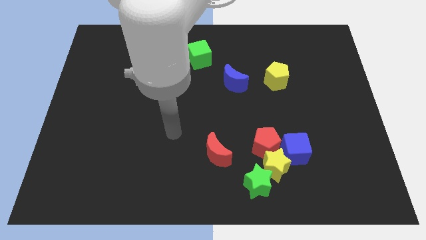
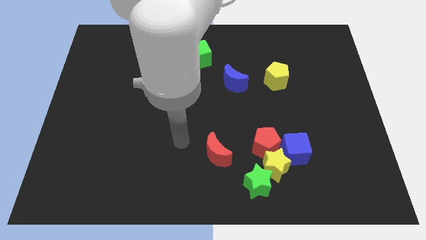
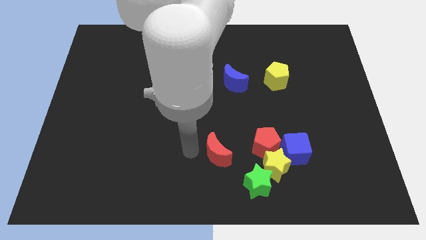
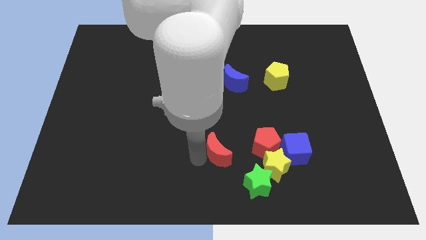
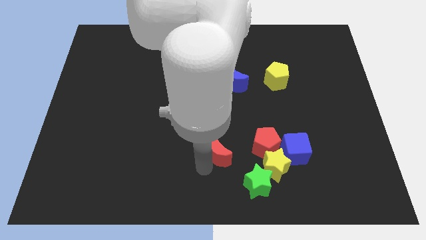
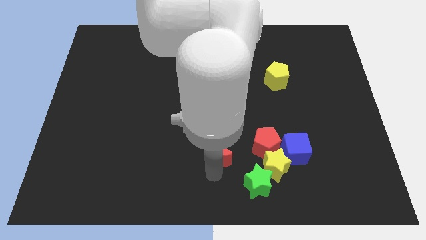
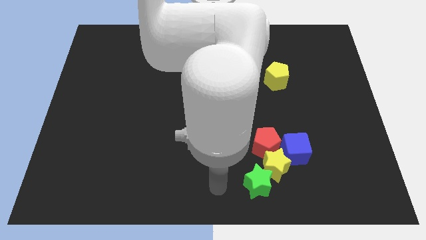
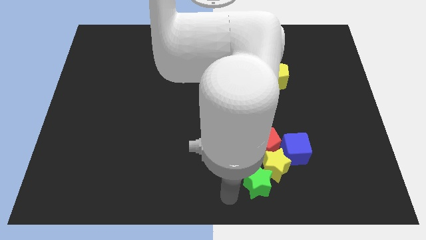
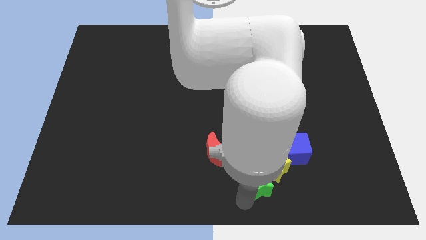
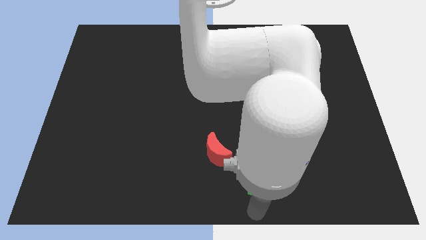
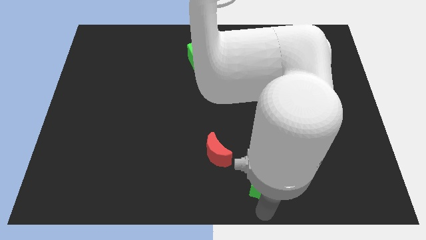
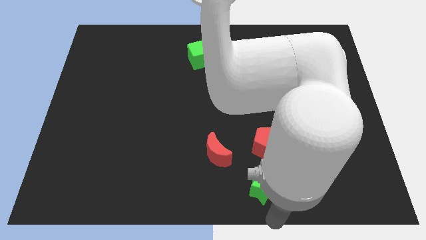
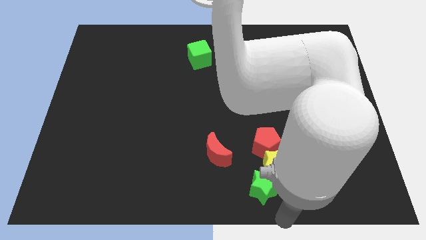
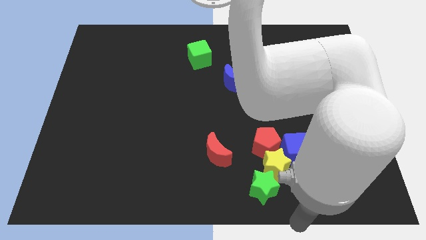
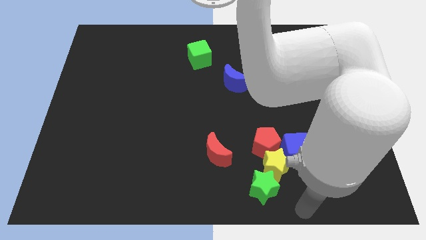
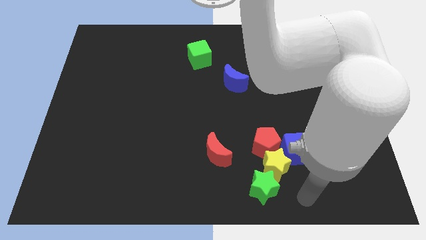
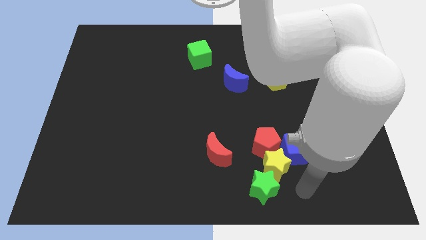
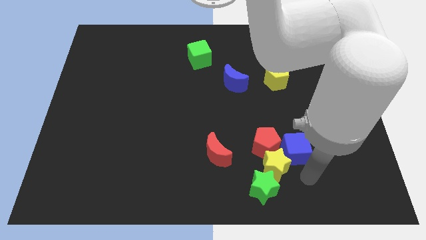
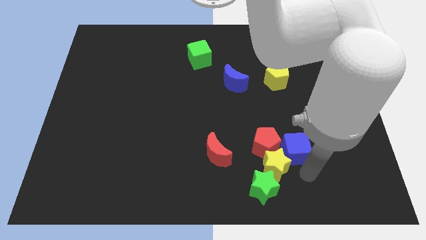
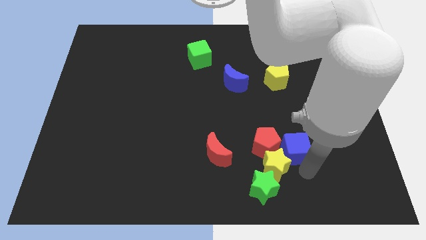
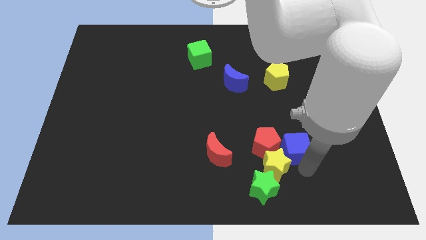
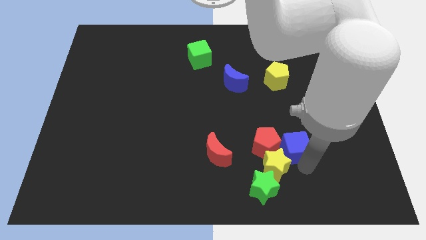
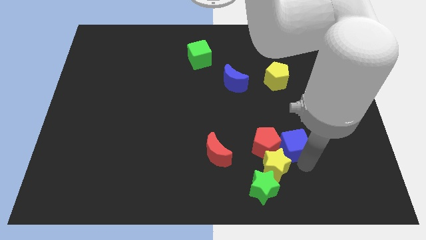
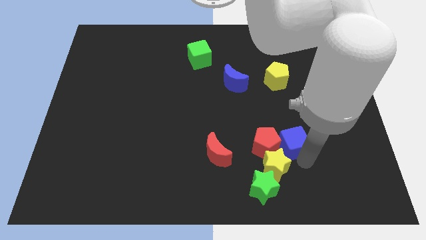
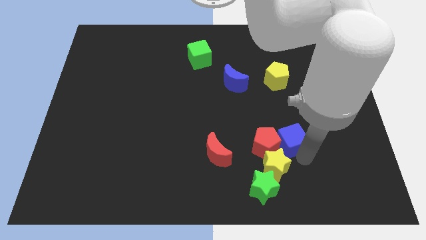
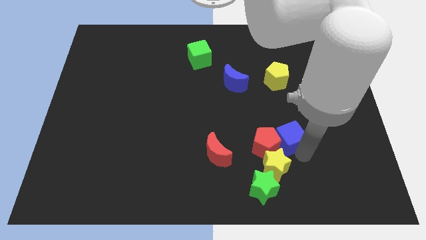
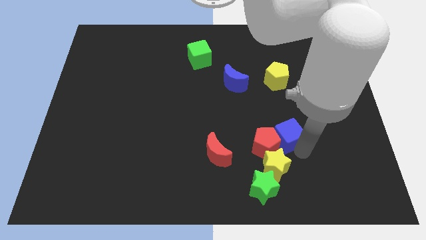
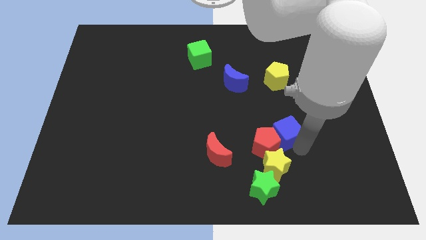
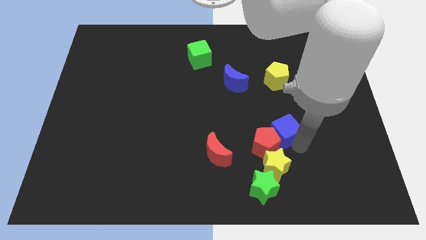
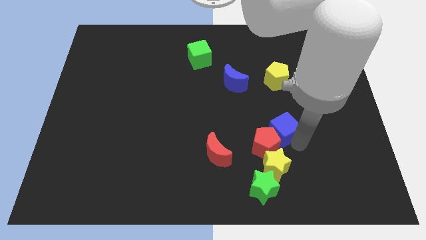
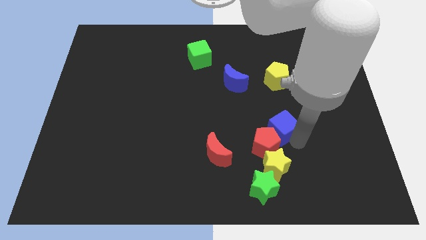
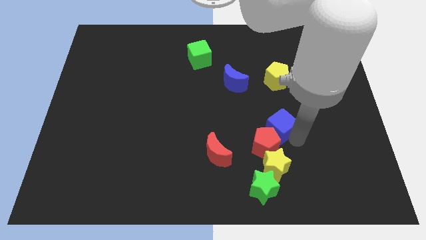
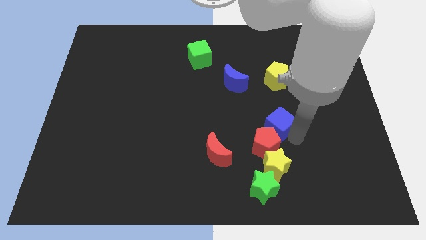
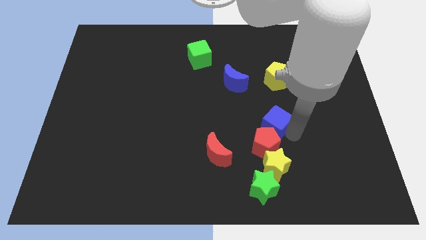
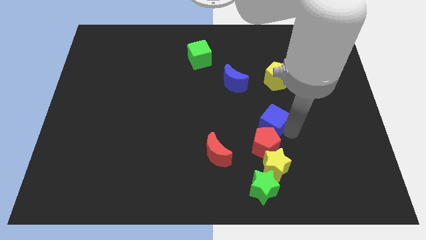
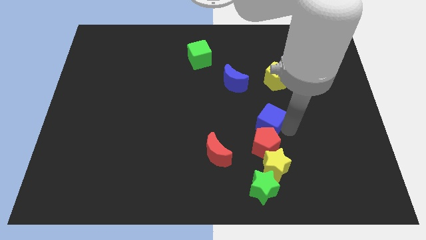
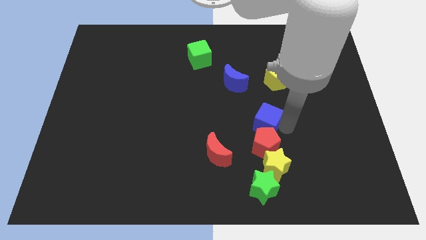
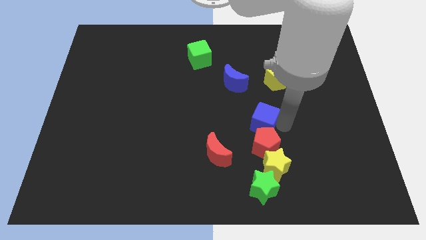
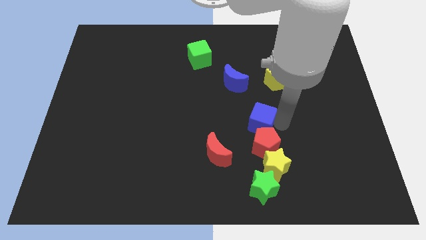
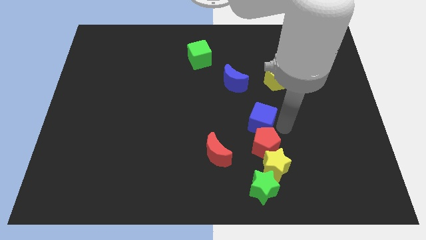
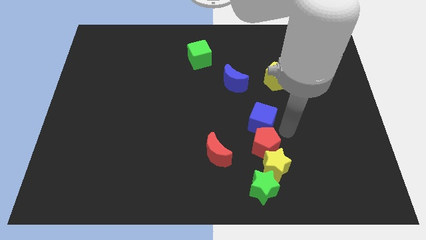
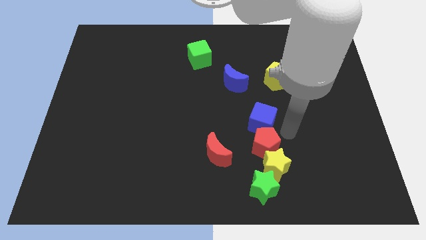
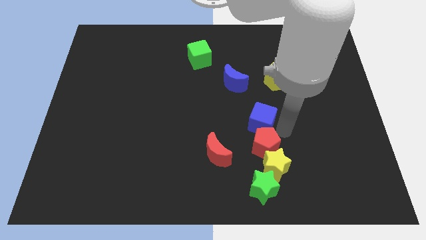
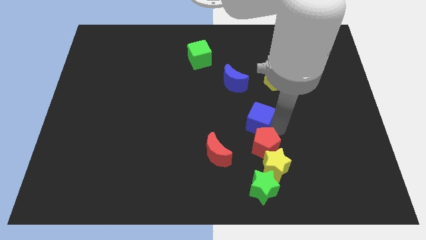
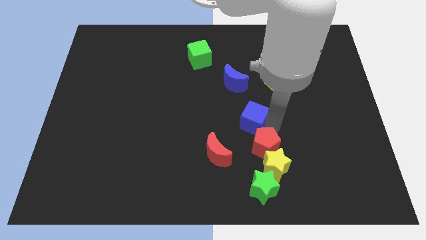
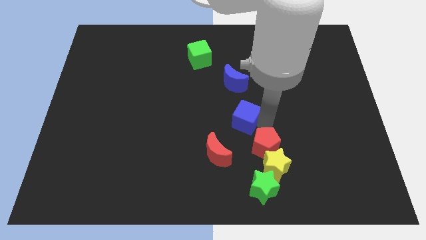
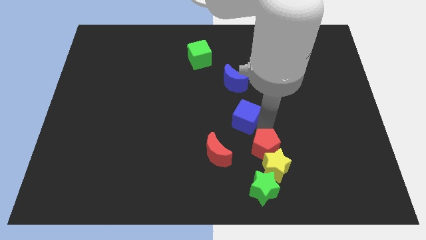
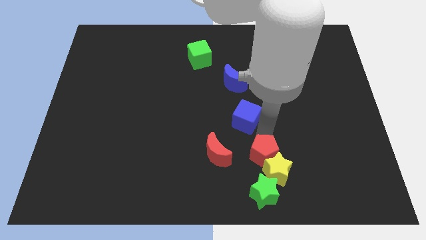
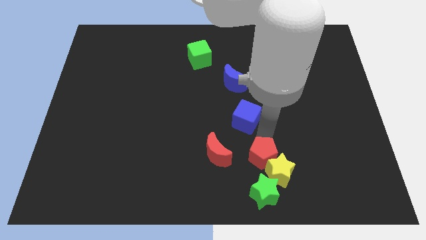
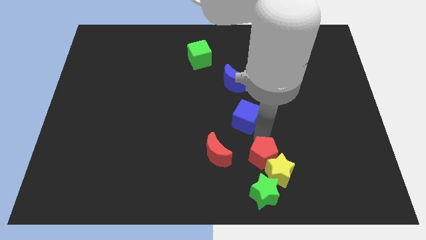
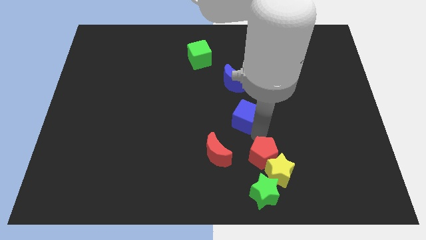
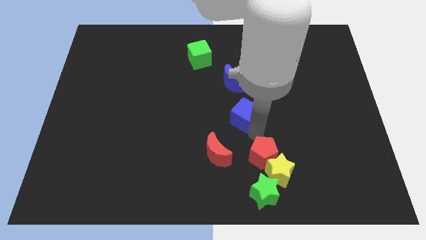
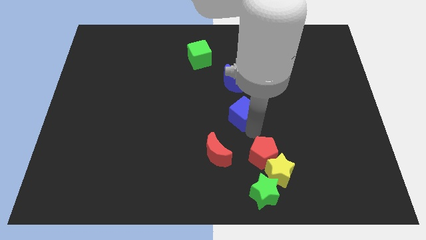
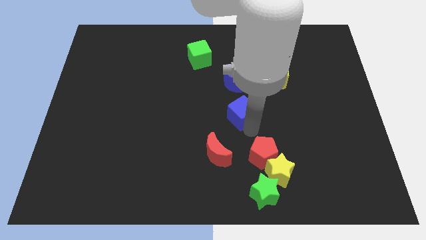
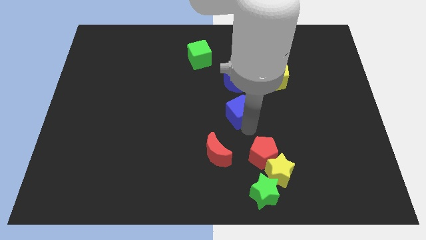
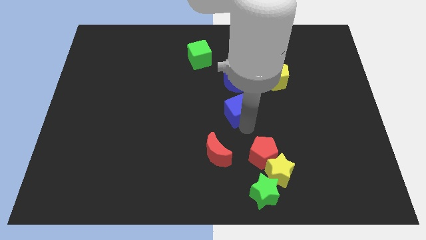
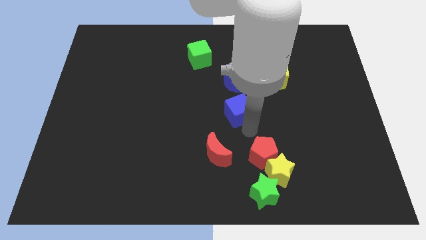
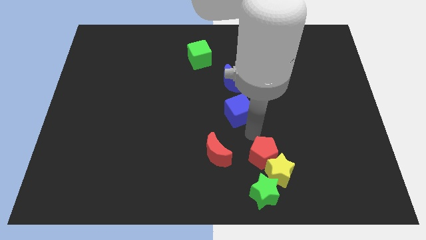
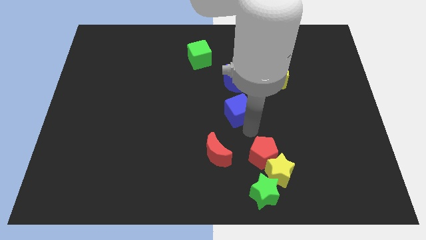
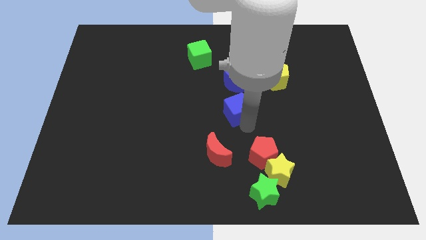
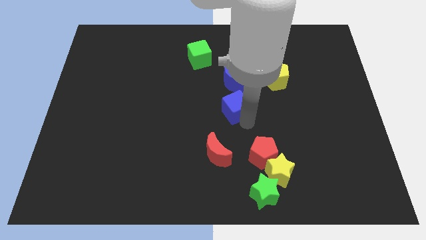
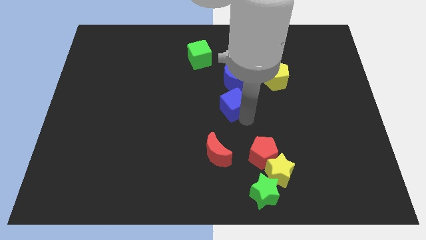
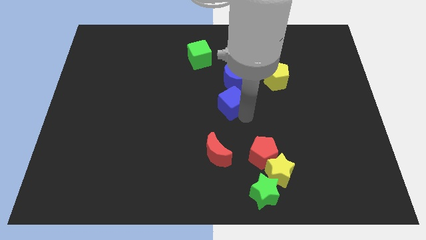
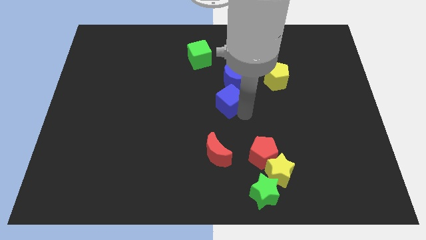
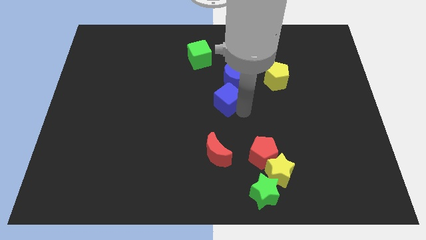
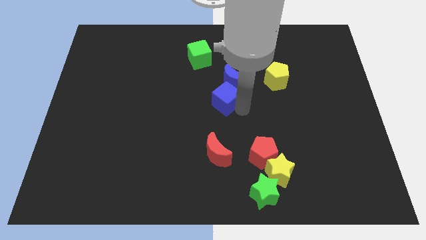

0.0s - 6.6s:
push the blue cube upwards and to the left diagonally

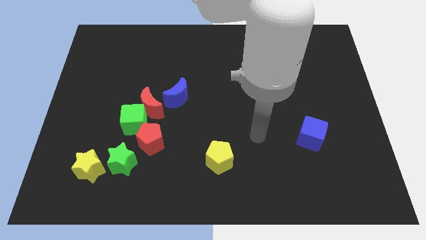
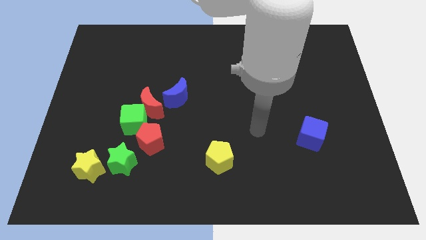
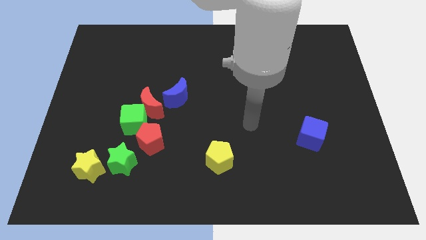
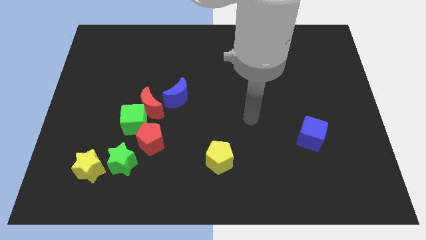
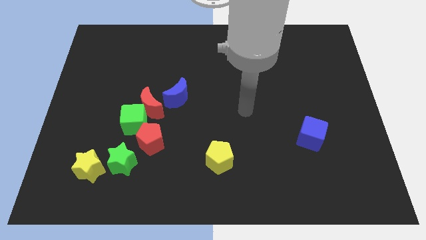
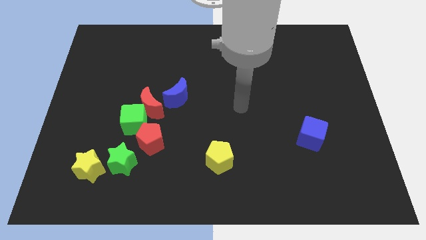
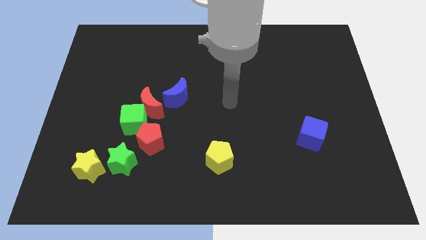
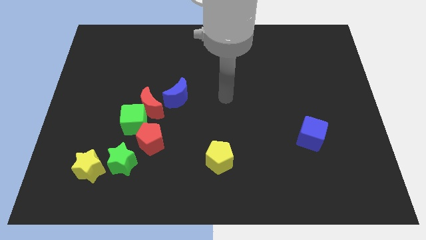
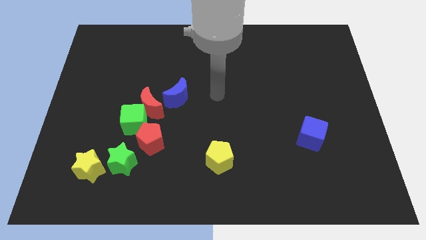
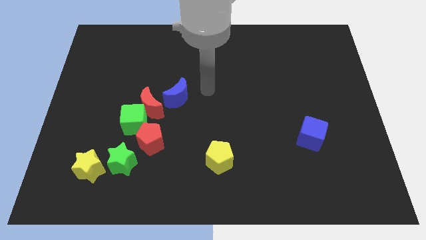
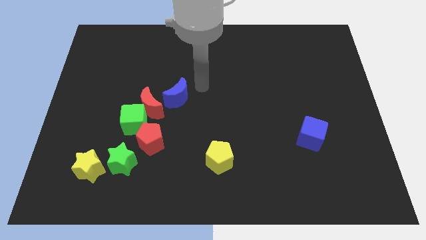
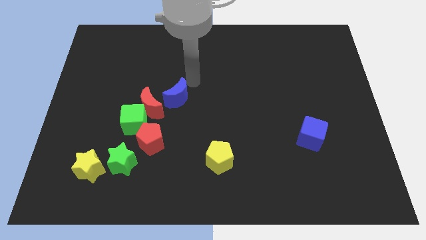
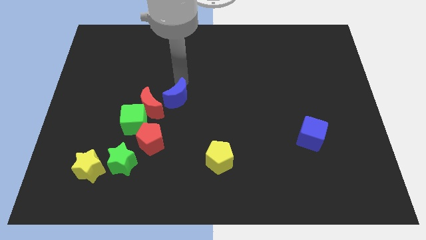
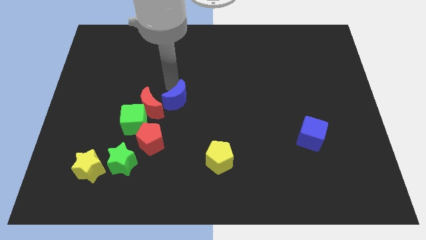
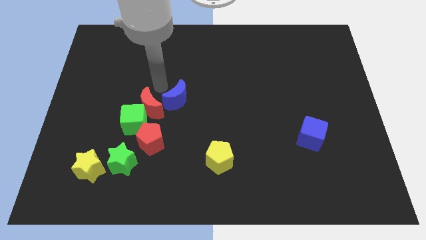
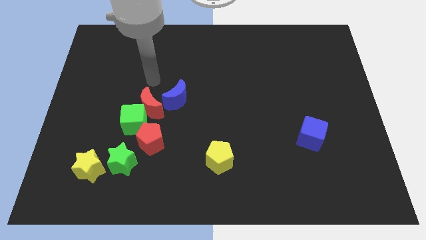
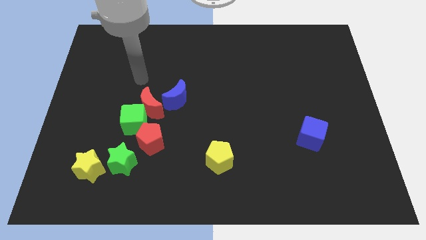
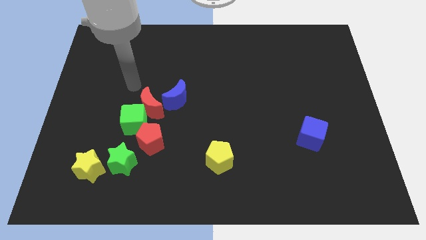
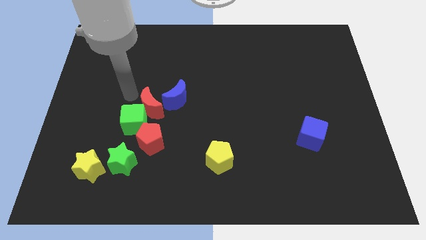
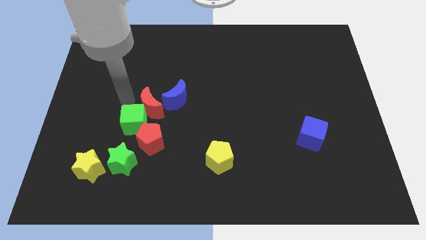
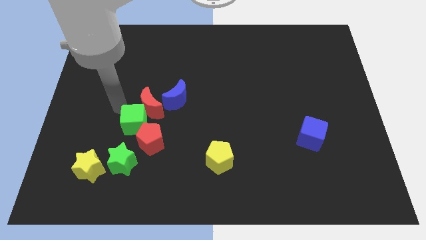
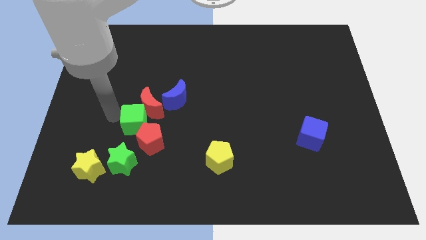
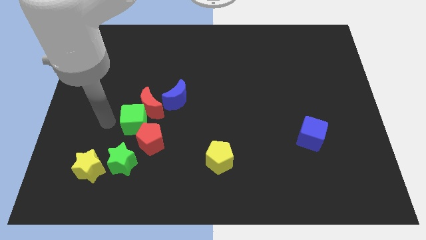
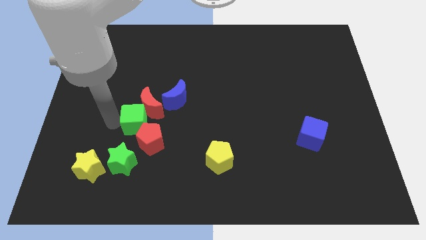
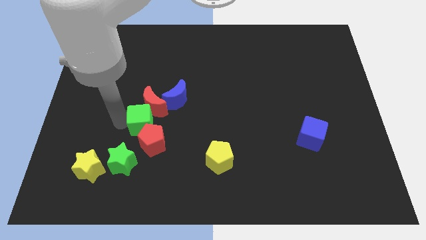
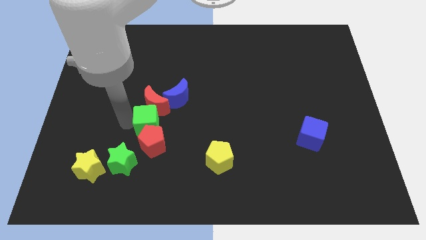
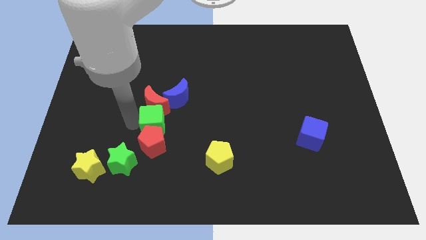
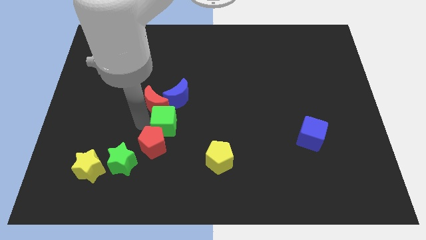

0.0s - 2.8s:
slightly move the green cube right
